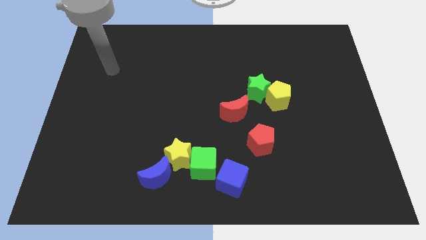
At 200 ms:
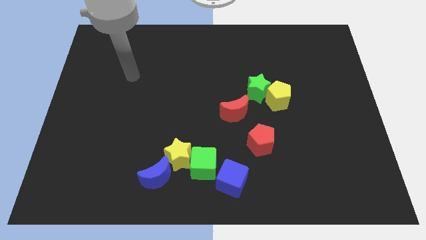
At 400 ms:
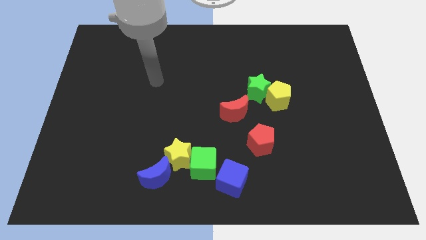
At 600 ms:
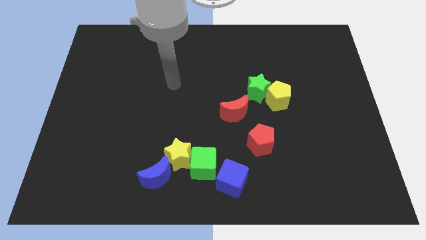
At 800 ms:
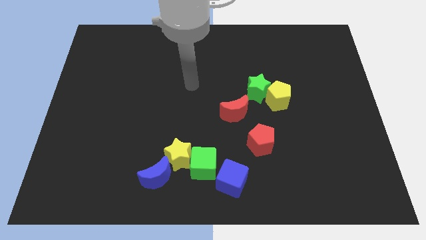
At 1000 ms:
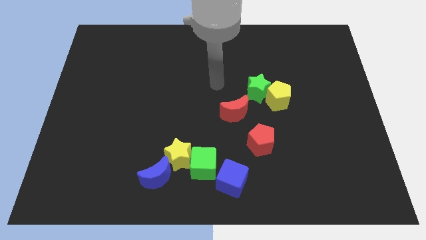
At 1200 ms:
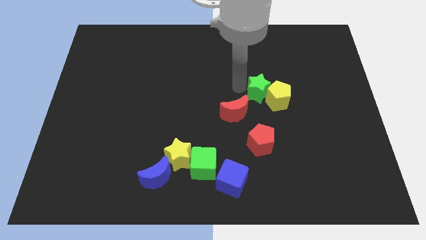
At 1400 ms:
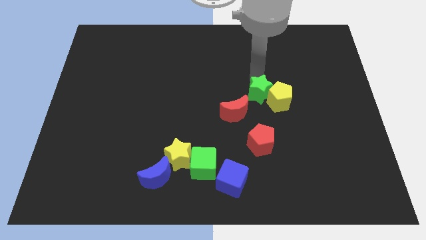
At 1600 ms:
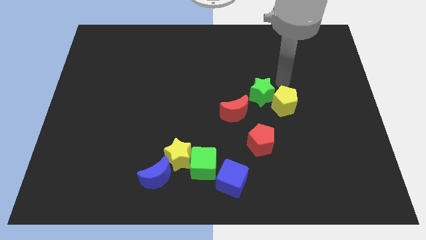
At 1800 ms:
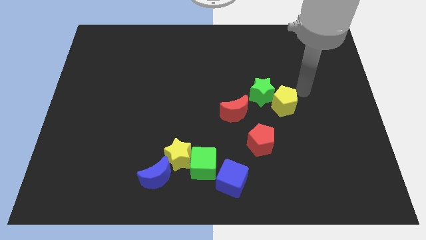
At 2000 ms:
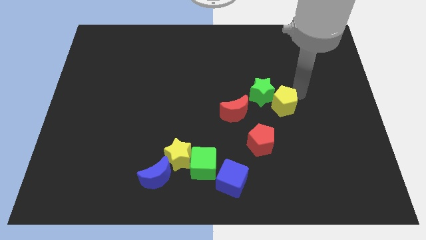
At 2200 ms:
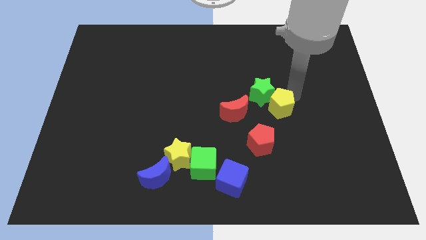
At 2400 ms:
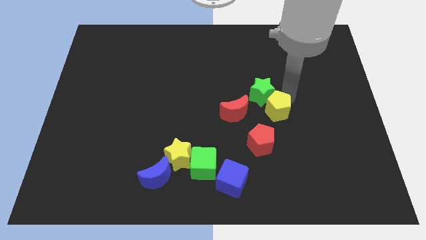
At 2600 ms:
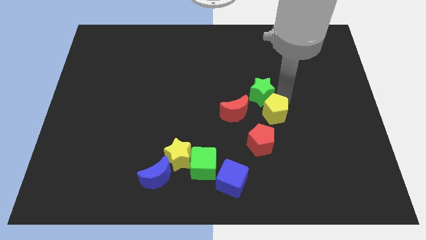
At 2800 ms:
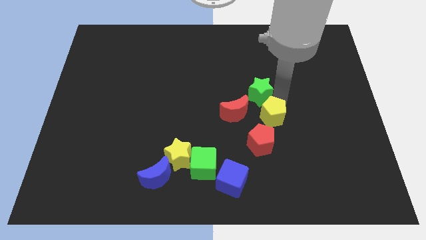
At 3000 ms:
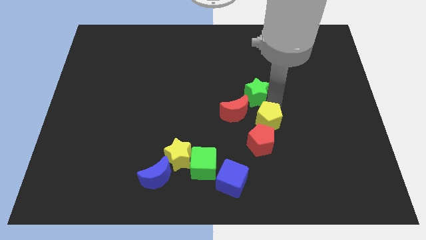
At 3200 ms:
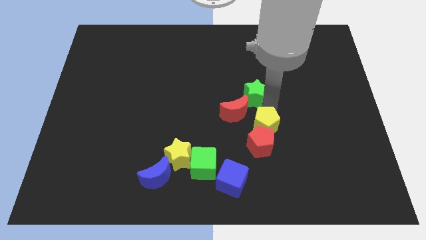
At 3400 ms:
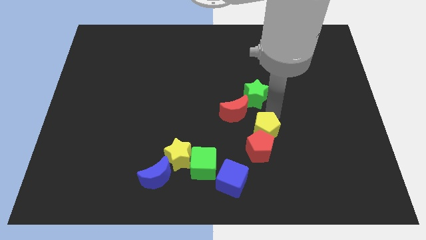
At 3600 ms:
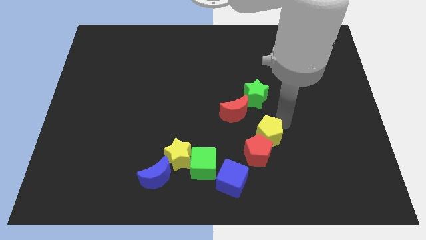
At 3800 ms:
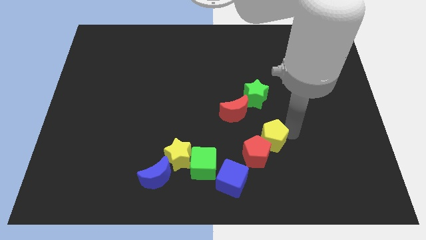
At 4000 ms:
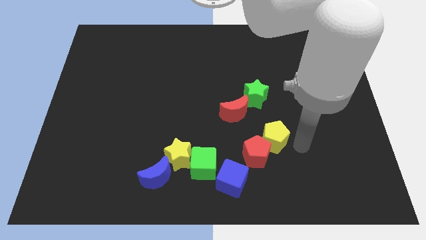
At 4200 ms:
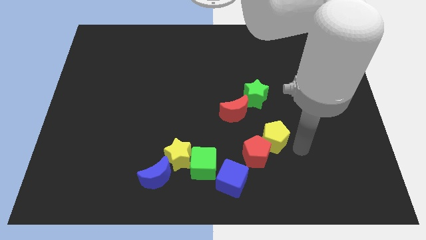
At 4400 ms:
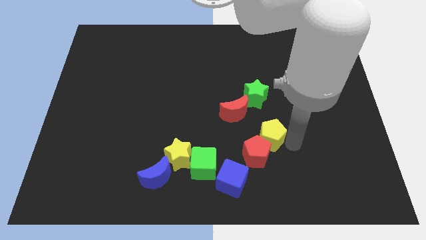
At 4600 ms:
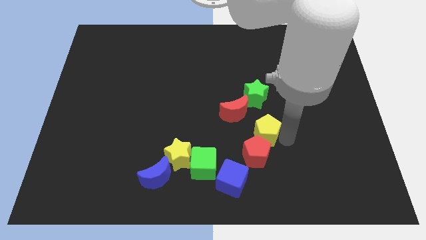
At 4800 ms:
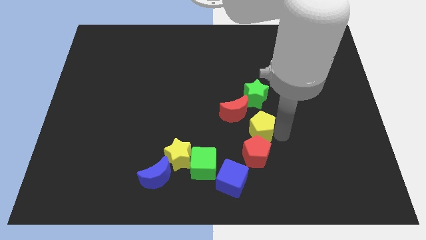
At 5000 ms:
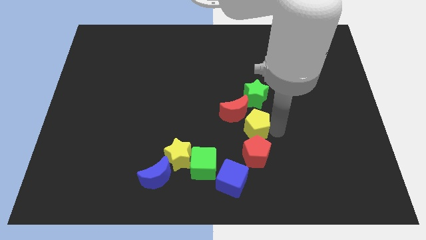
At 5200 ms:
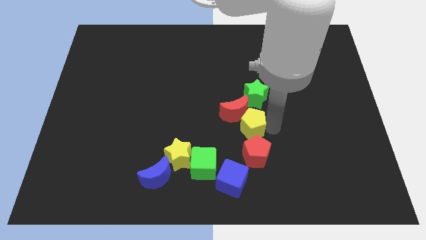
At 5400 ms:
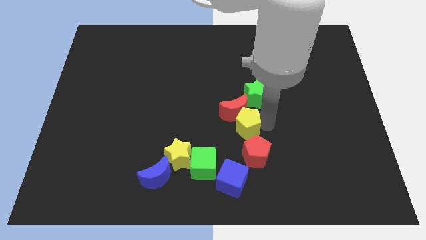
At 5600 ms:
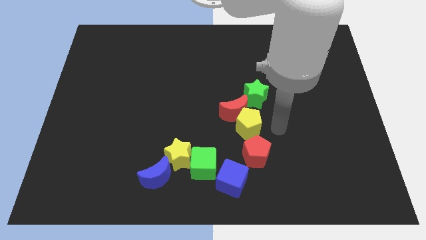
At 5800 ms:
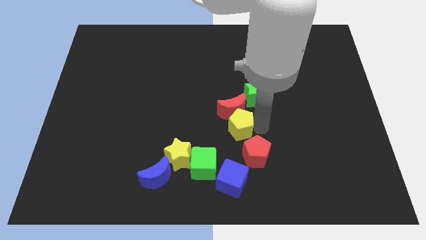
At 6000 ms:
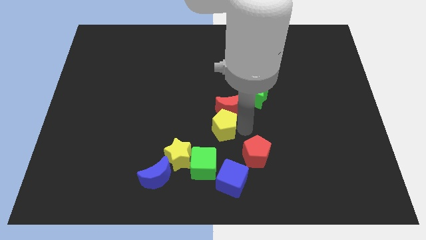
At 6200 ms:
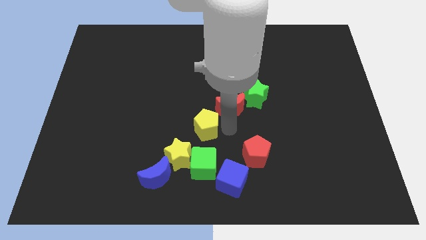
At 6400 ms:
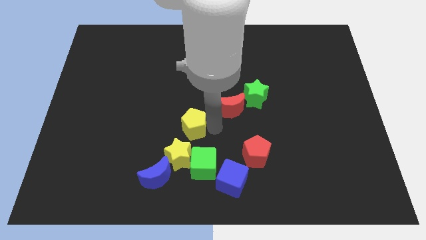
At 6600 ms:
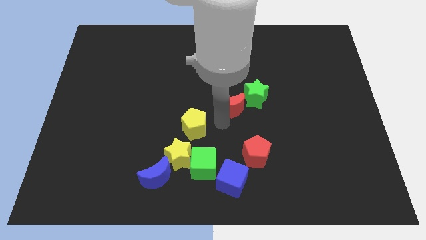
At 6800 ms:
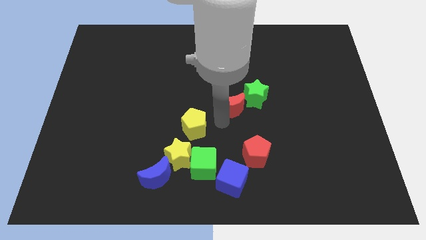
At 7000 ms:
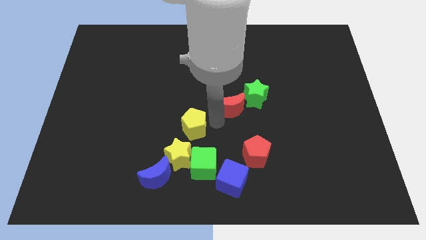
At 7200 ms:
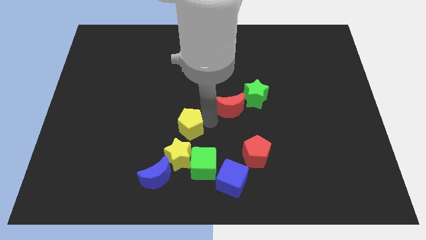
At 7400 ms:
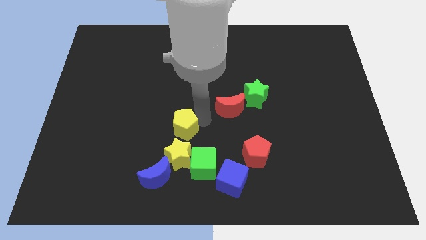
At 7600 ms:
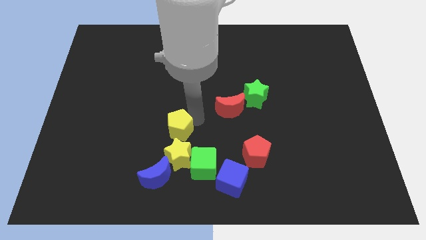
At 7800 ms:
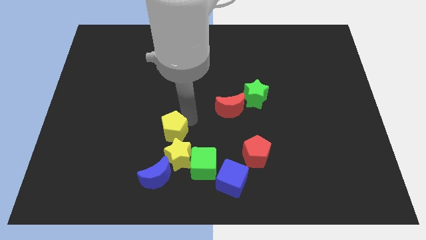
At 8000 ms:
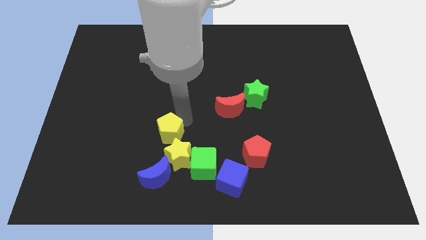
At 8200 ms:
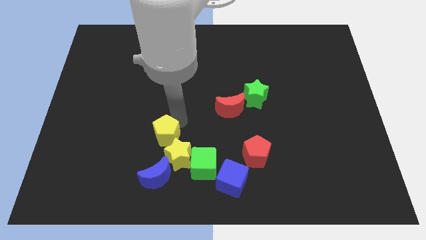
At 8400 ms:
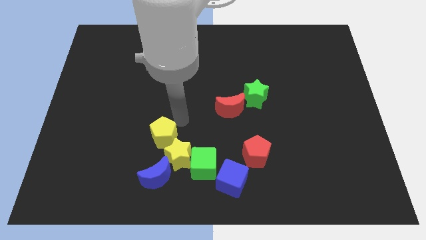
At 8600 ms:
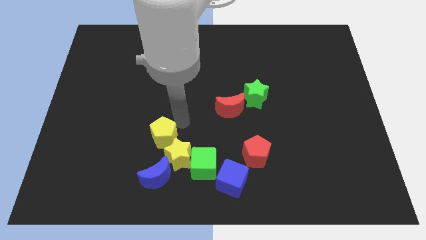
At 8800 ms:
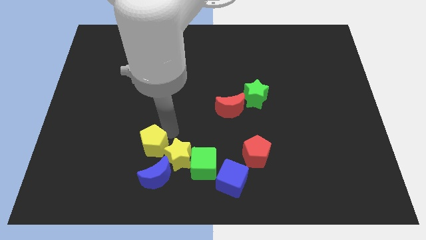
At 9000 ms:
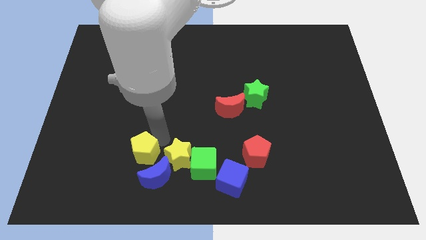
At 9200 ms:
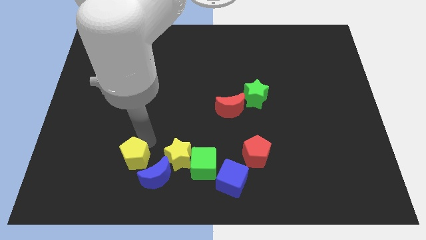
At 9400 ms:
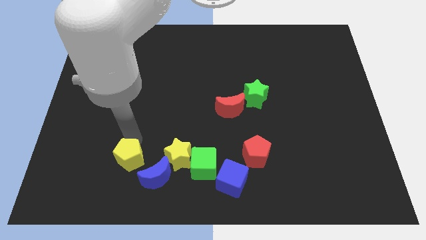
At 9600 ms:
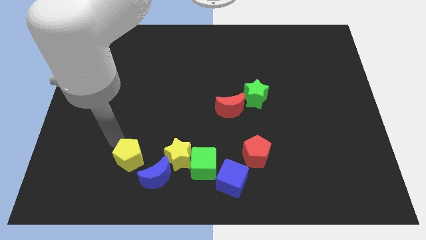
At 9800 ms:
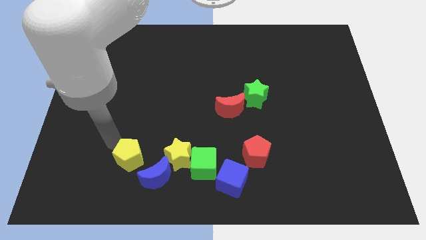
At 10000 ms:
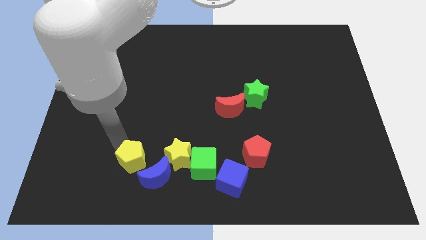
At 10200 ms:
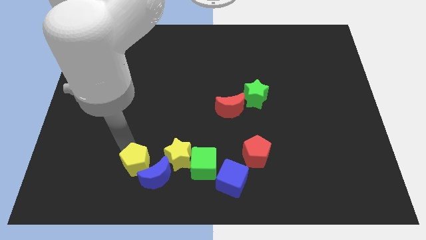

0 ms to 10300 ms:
move the yellow pentagon to the blue moon

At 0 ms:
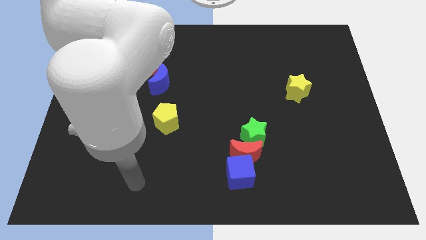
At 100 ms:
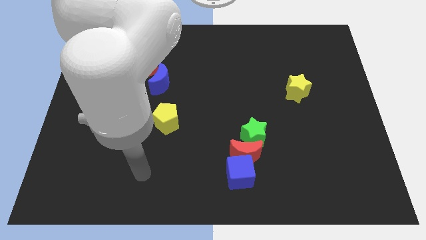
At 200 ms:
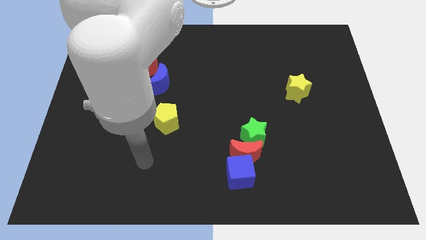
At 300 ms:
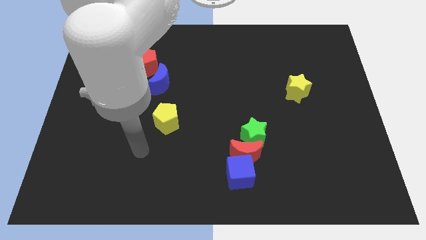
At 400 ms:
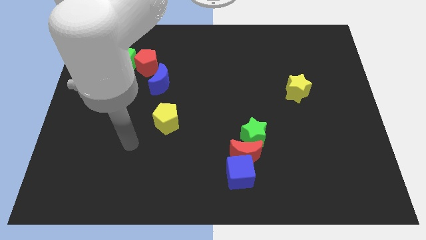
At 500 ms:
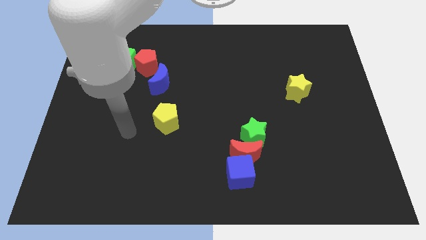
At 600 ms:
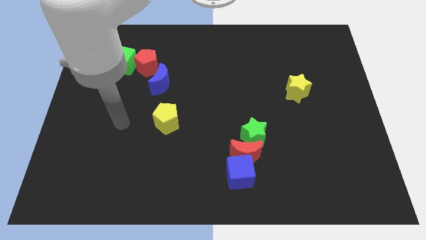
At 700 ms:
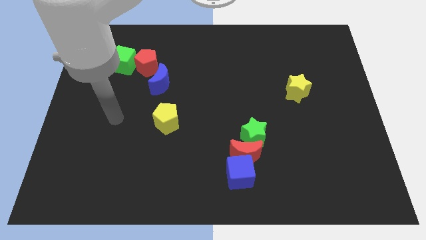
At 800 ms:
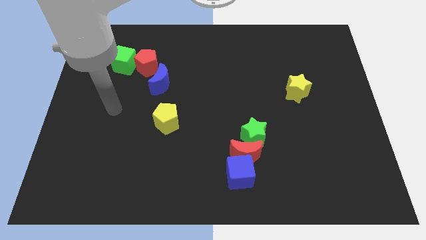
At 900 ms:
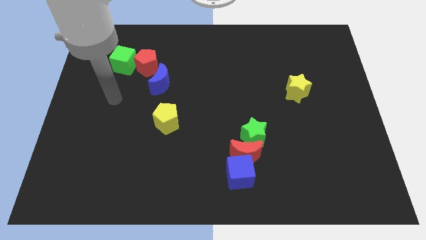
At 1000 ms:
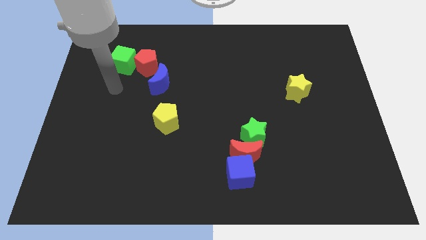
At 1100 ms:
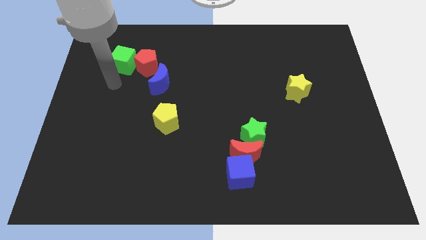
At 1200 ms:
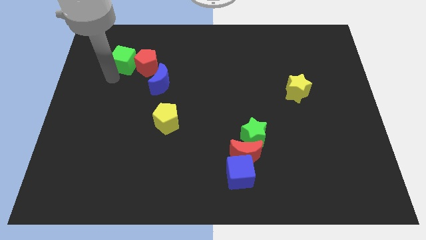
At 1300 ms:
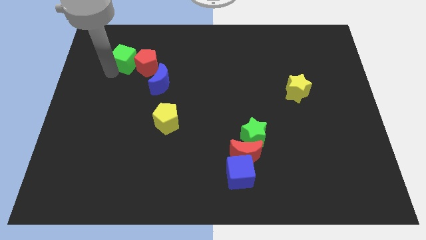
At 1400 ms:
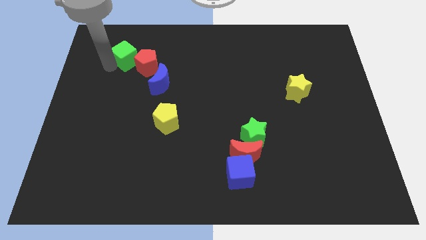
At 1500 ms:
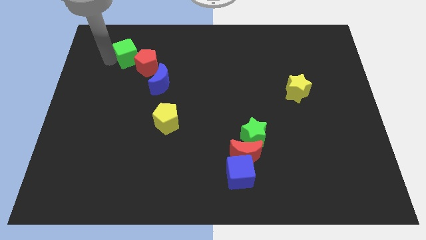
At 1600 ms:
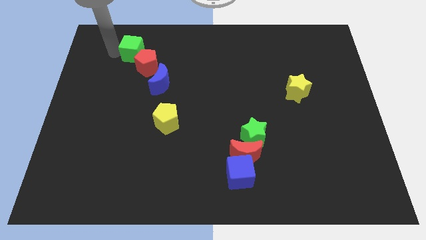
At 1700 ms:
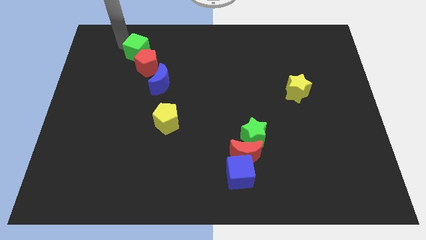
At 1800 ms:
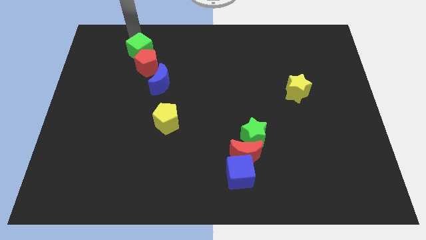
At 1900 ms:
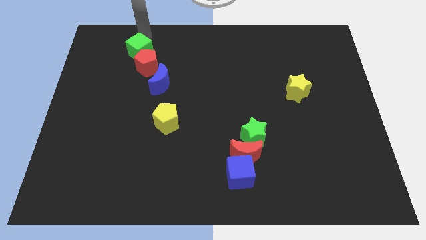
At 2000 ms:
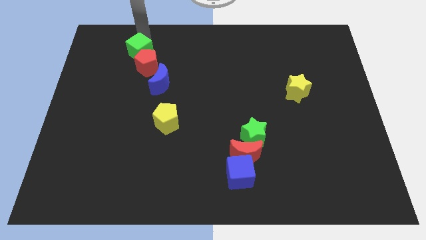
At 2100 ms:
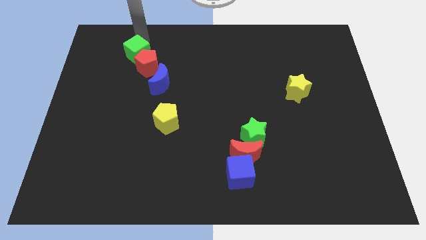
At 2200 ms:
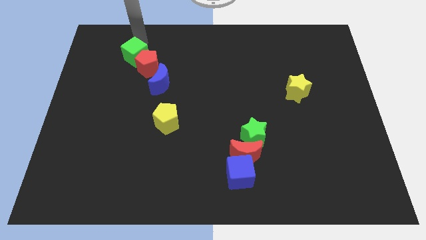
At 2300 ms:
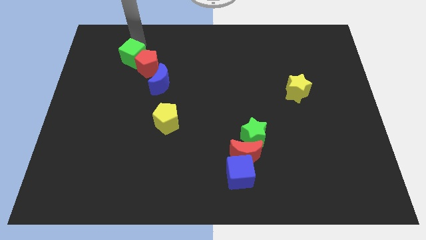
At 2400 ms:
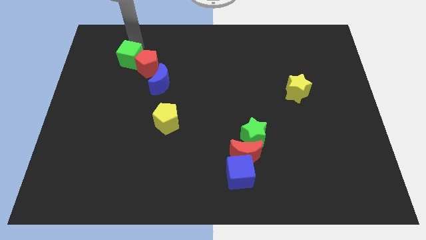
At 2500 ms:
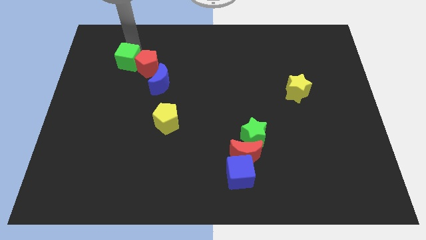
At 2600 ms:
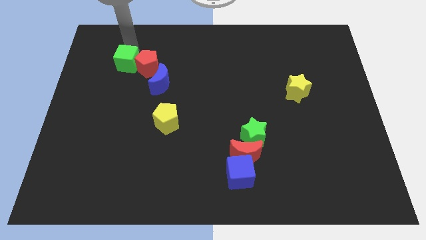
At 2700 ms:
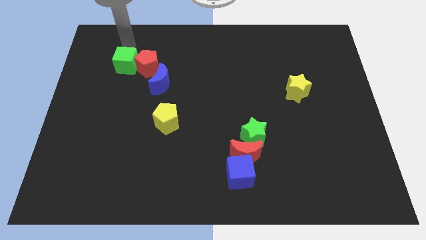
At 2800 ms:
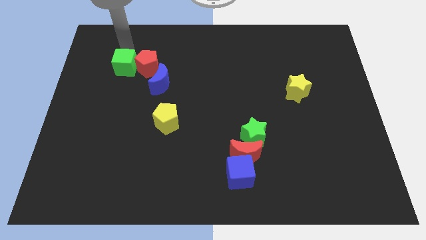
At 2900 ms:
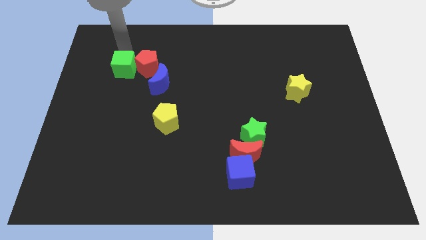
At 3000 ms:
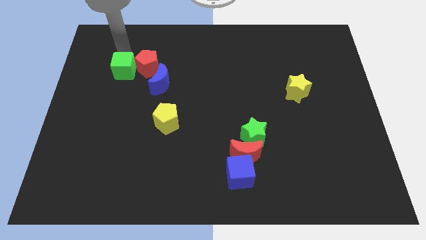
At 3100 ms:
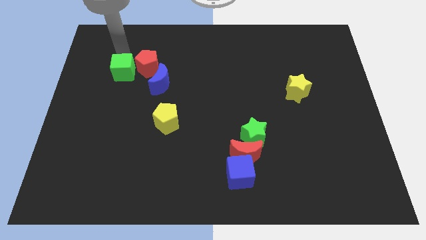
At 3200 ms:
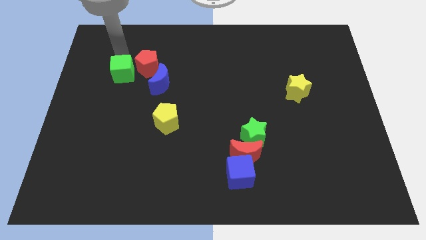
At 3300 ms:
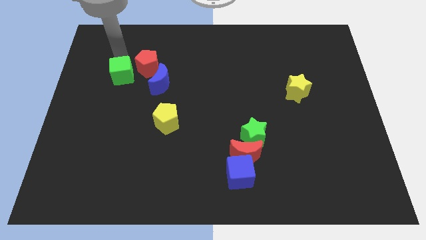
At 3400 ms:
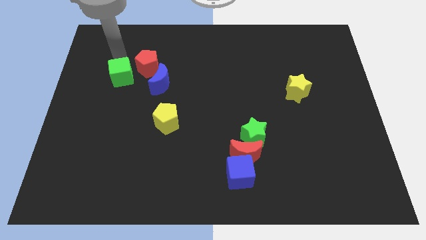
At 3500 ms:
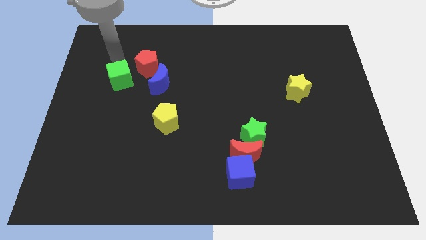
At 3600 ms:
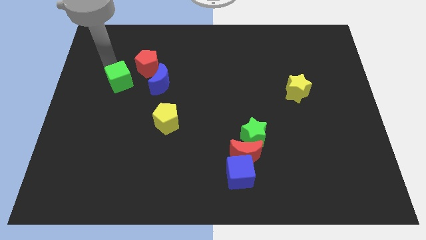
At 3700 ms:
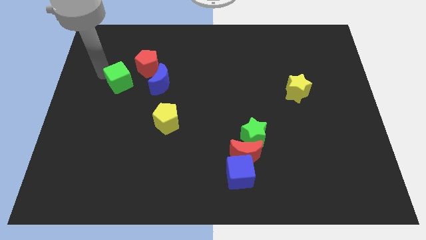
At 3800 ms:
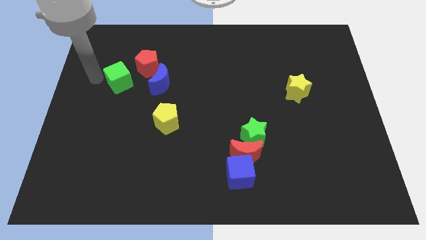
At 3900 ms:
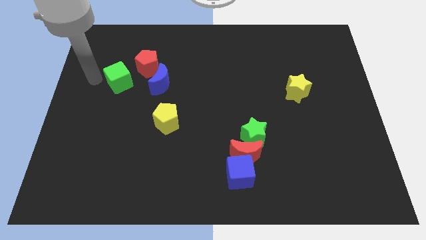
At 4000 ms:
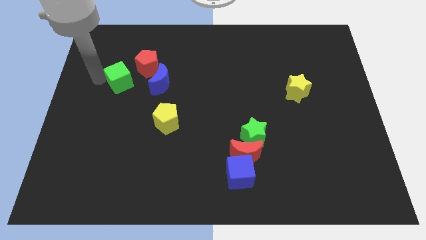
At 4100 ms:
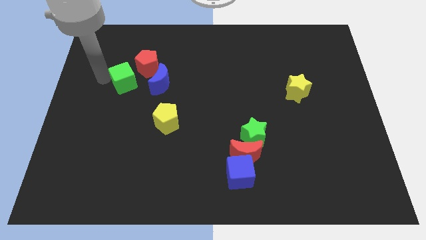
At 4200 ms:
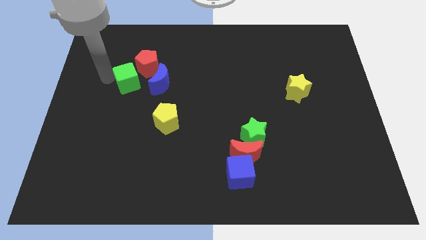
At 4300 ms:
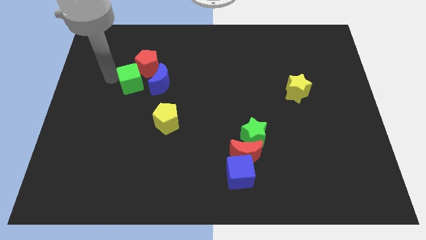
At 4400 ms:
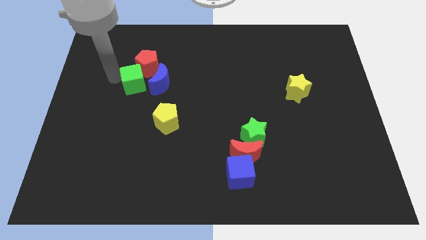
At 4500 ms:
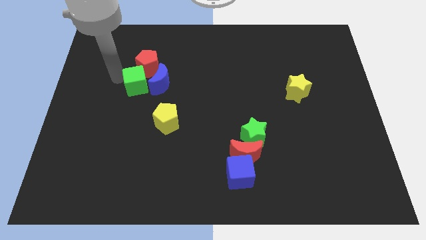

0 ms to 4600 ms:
put the green cube to the blue moon
